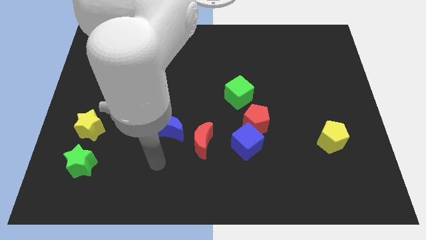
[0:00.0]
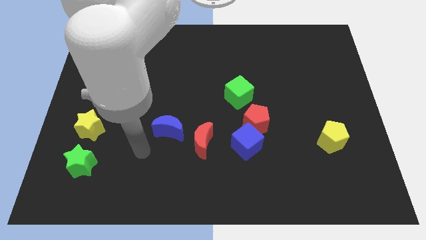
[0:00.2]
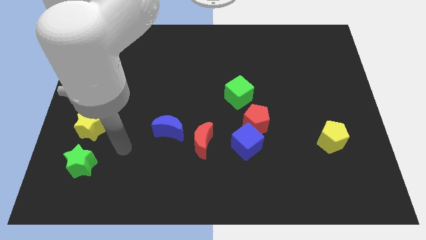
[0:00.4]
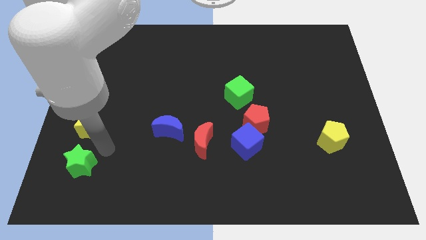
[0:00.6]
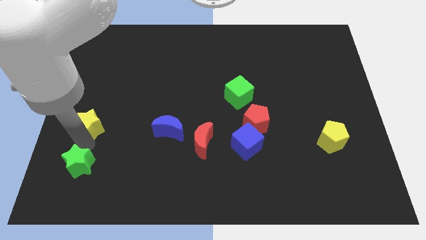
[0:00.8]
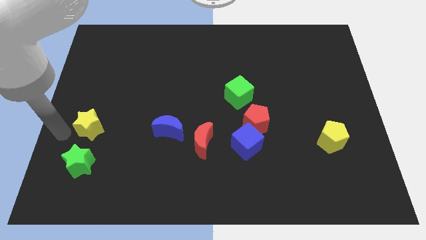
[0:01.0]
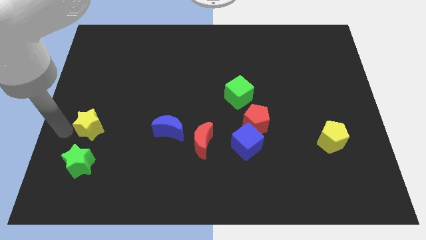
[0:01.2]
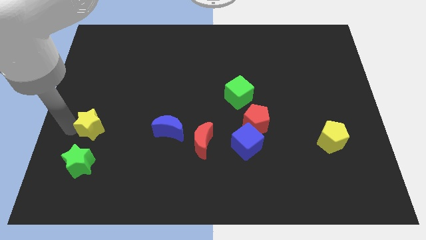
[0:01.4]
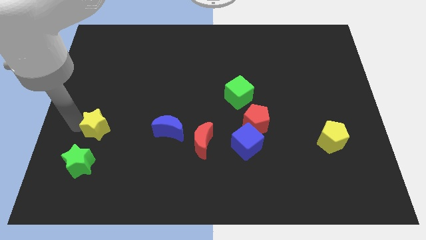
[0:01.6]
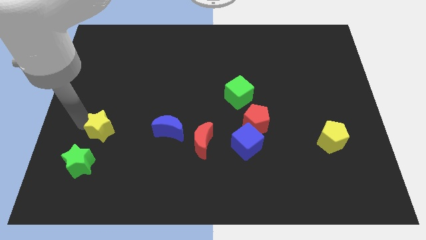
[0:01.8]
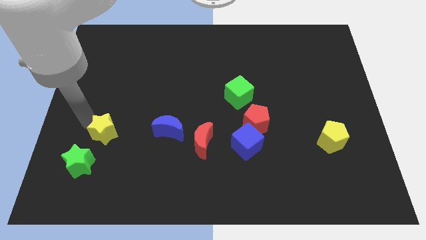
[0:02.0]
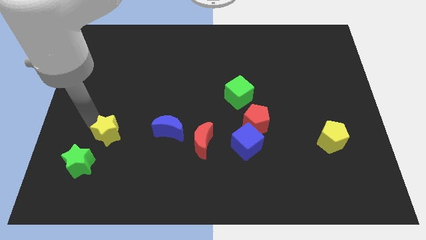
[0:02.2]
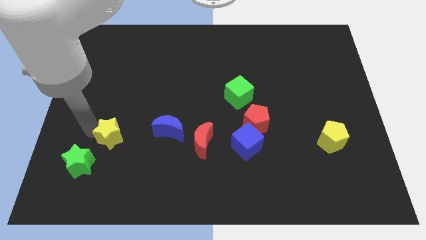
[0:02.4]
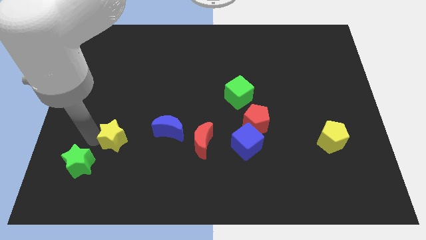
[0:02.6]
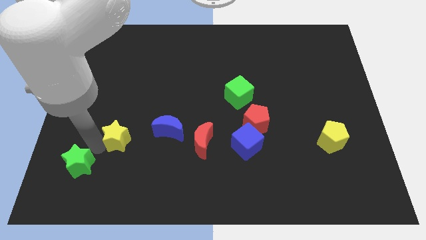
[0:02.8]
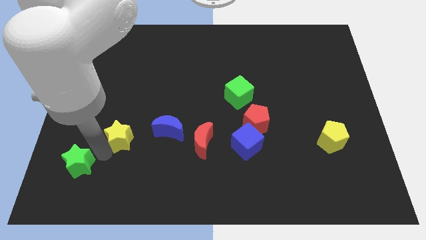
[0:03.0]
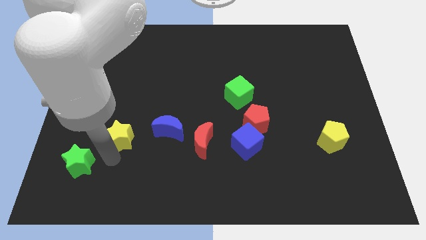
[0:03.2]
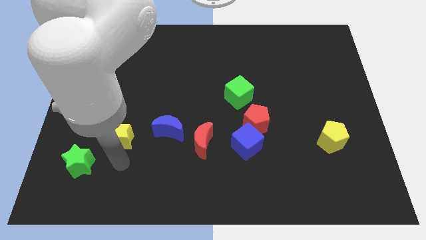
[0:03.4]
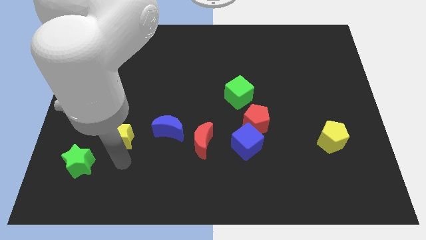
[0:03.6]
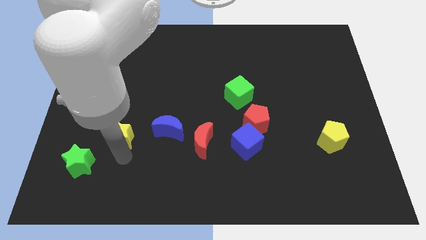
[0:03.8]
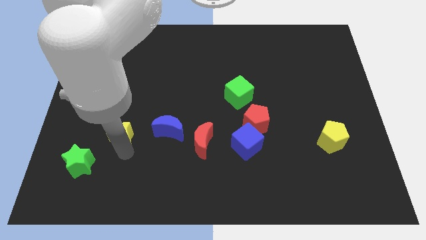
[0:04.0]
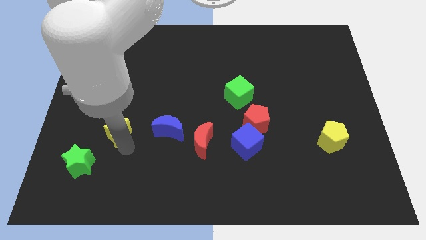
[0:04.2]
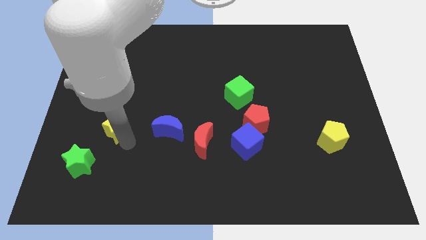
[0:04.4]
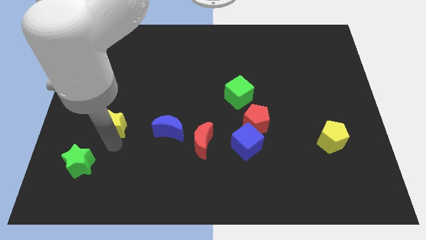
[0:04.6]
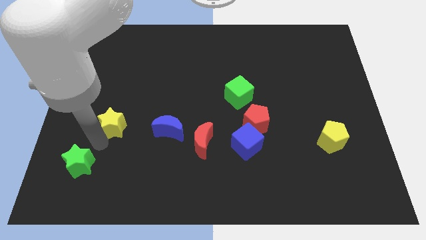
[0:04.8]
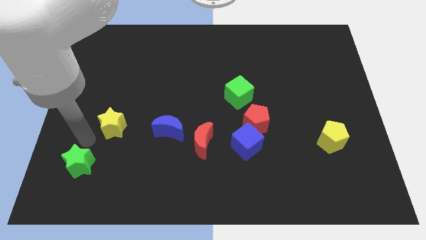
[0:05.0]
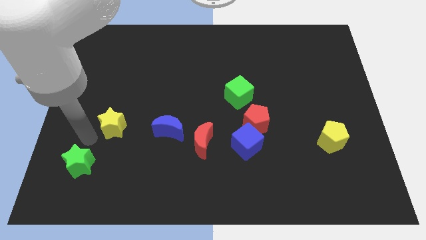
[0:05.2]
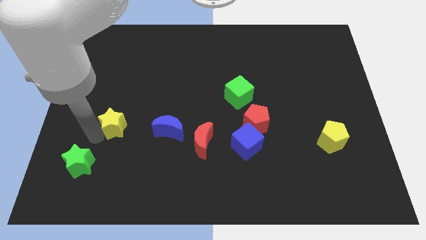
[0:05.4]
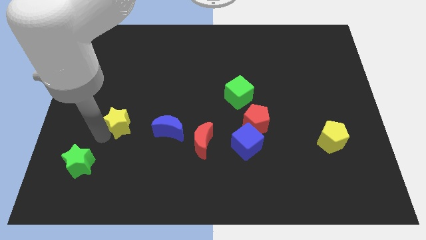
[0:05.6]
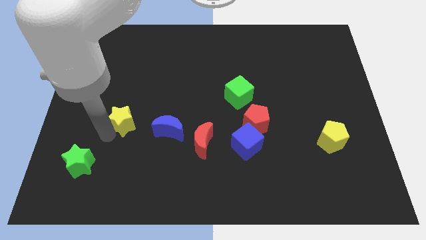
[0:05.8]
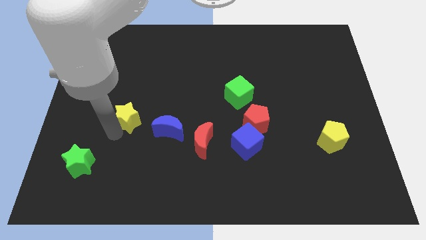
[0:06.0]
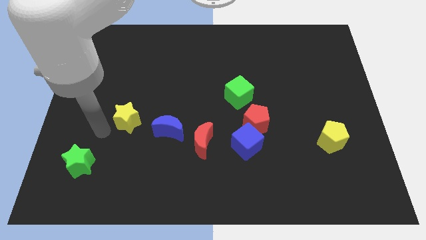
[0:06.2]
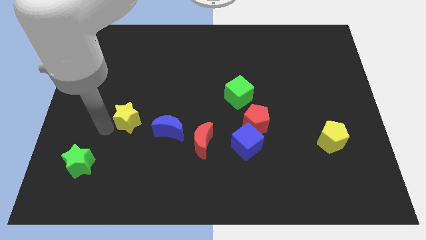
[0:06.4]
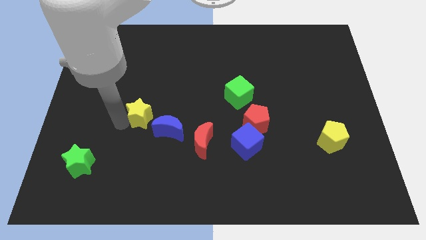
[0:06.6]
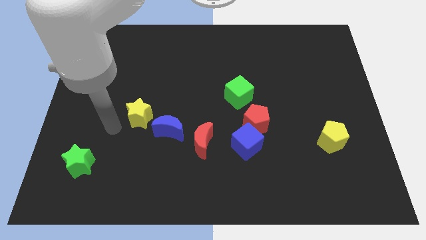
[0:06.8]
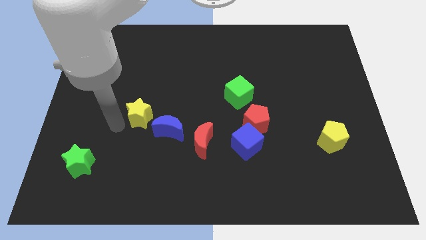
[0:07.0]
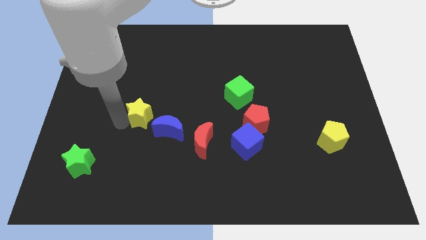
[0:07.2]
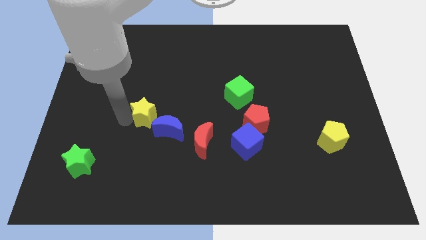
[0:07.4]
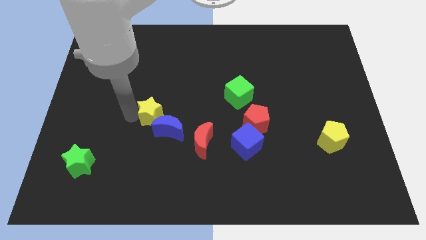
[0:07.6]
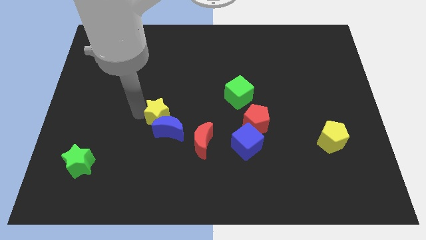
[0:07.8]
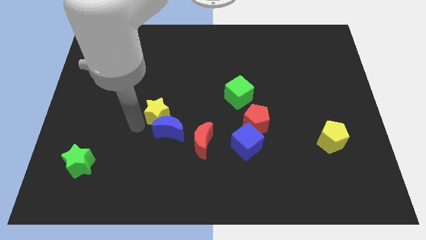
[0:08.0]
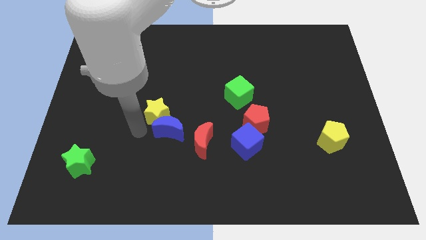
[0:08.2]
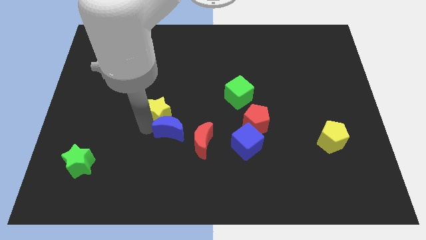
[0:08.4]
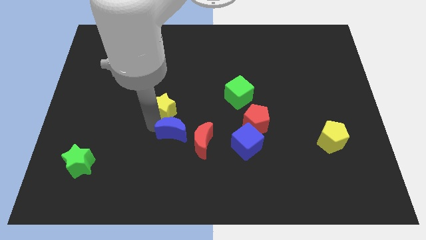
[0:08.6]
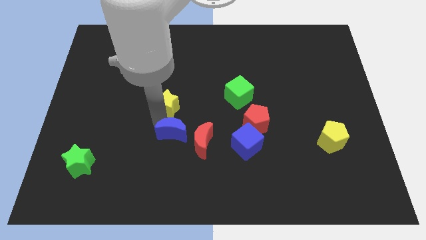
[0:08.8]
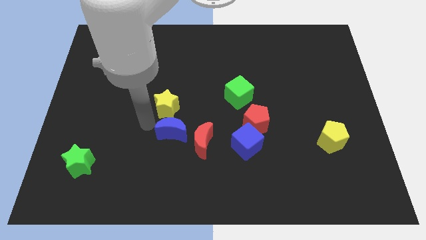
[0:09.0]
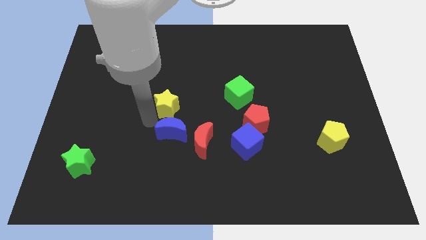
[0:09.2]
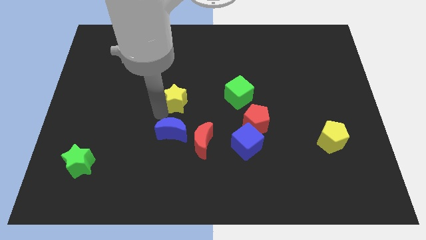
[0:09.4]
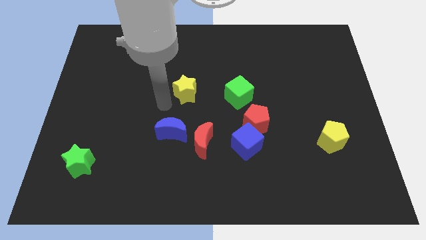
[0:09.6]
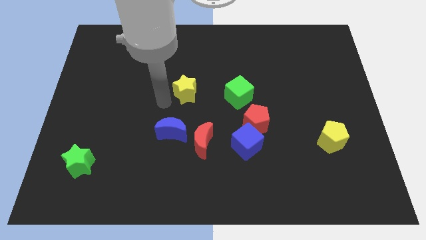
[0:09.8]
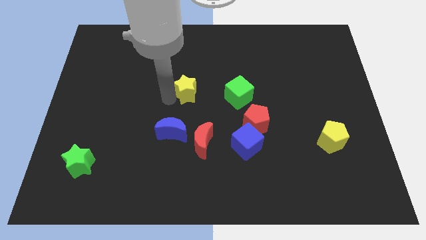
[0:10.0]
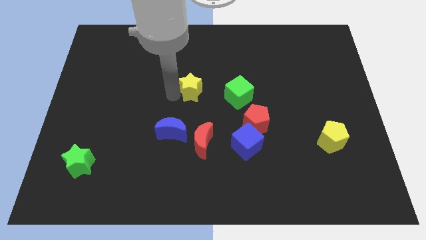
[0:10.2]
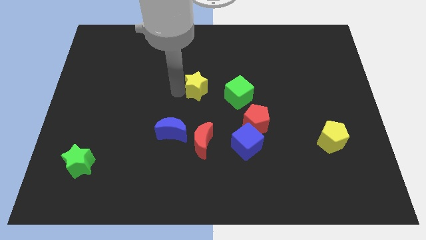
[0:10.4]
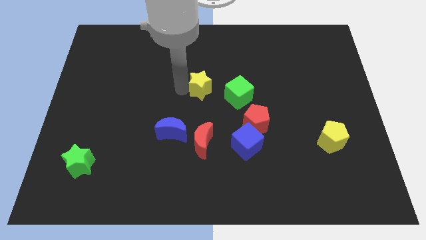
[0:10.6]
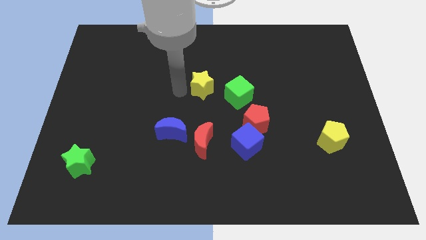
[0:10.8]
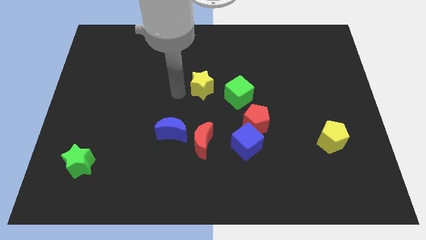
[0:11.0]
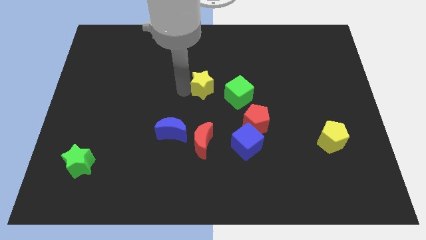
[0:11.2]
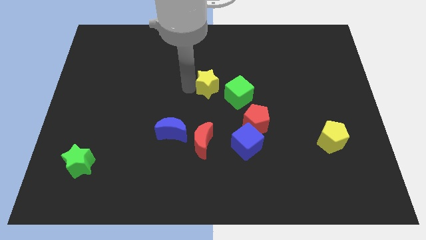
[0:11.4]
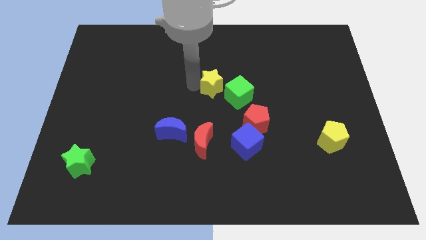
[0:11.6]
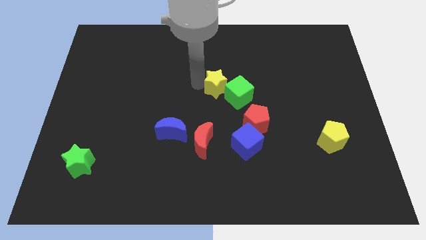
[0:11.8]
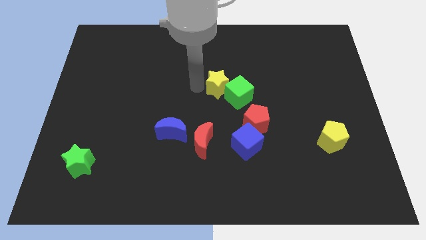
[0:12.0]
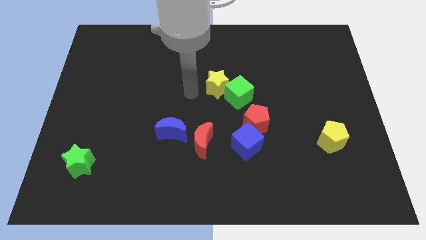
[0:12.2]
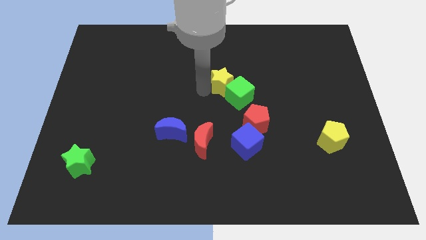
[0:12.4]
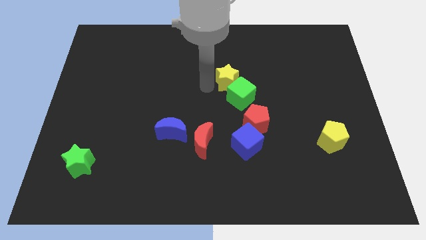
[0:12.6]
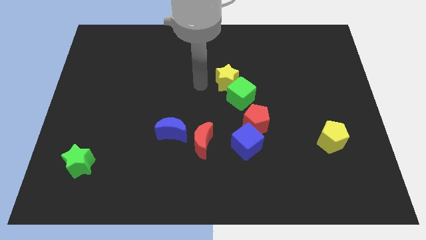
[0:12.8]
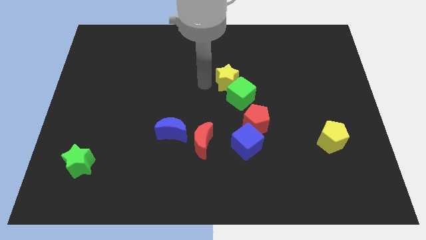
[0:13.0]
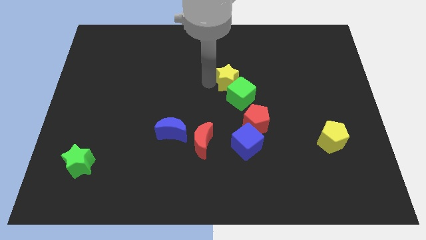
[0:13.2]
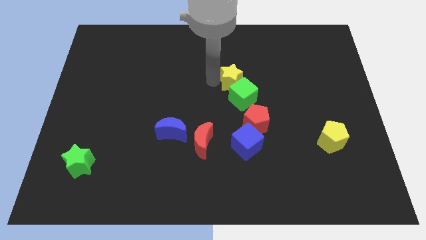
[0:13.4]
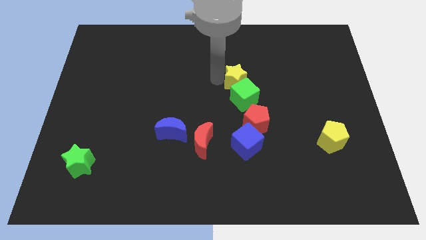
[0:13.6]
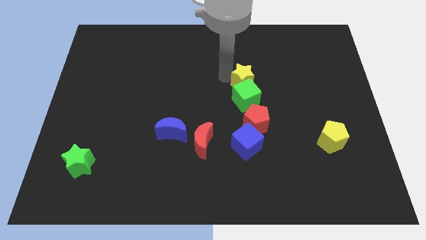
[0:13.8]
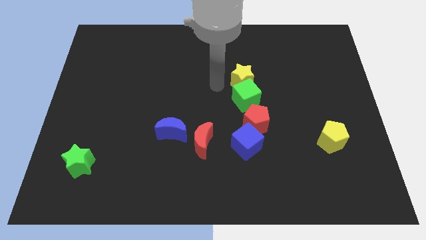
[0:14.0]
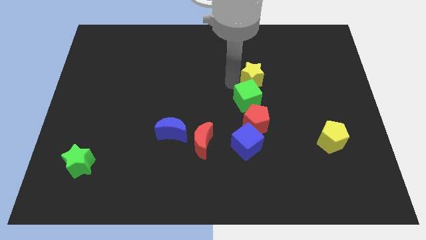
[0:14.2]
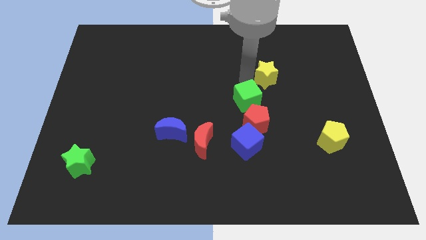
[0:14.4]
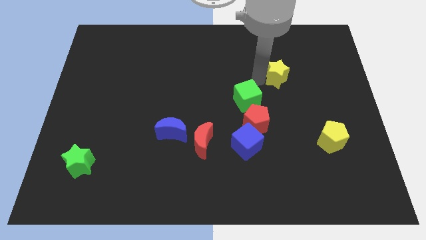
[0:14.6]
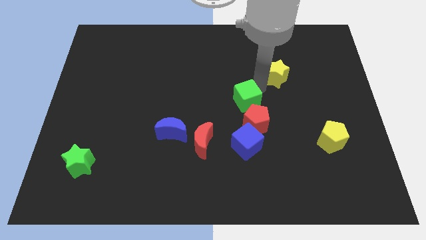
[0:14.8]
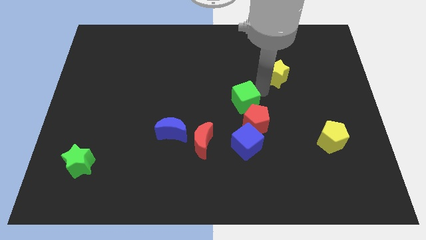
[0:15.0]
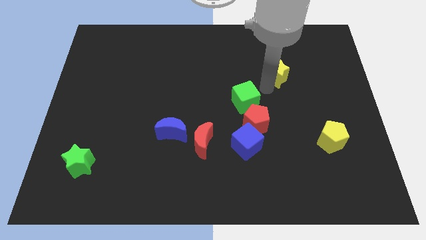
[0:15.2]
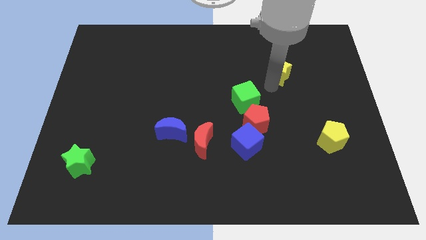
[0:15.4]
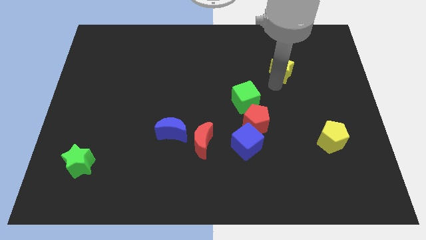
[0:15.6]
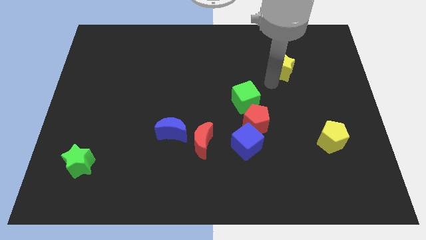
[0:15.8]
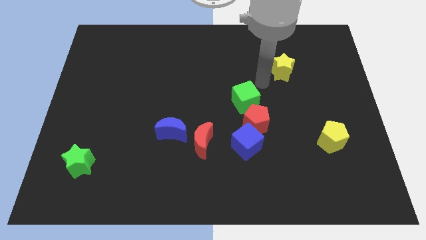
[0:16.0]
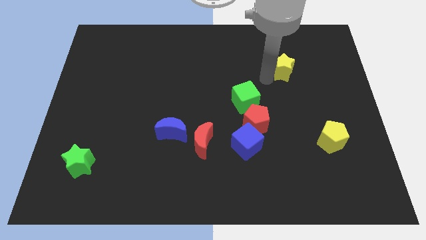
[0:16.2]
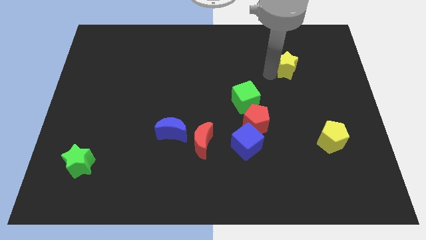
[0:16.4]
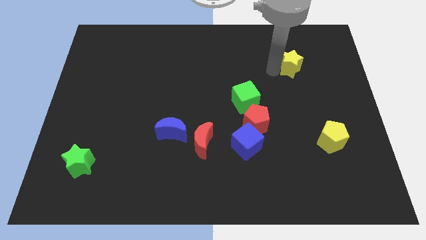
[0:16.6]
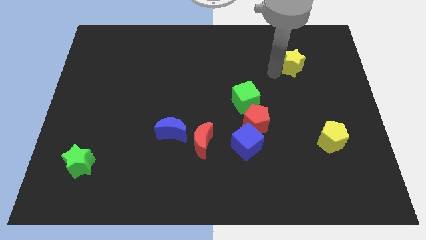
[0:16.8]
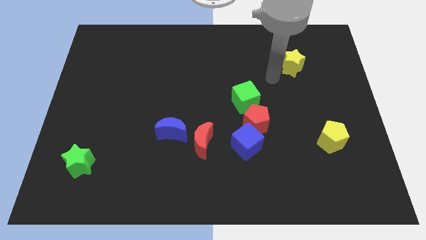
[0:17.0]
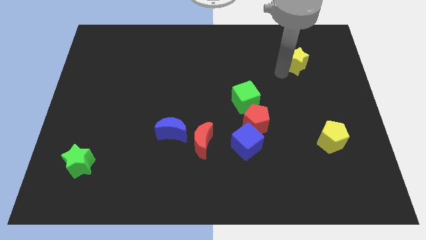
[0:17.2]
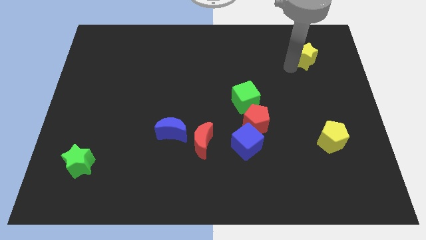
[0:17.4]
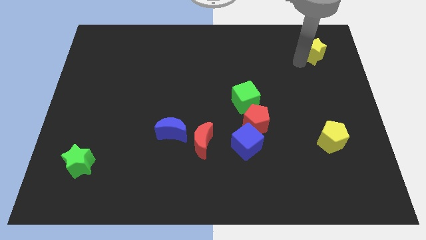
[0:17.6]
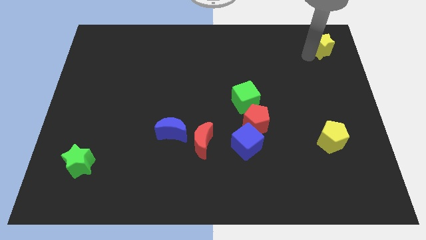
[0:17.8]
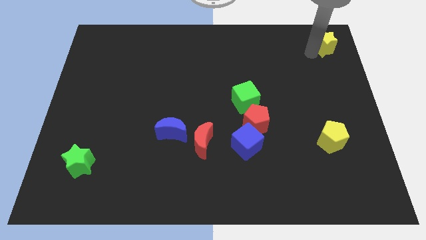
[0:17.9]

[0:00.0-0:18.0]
push the yellow star to the upper right corner
